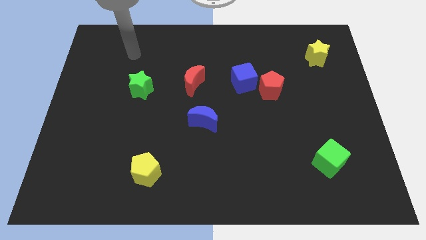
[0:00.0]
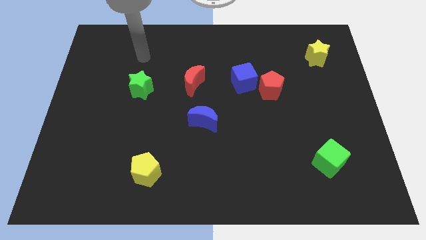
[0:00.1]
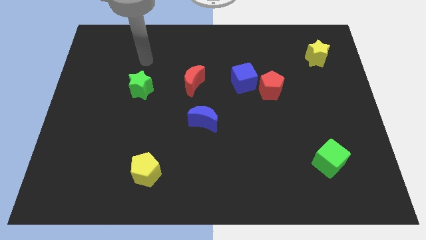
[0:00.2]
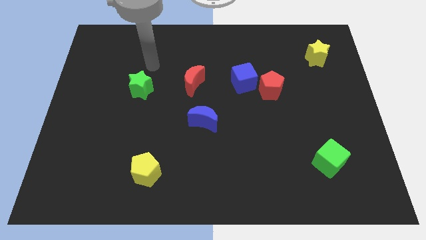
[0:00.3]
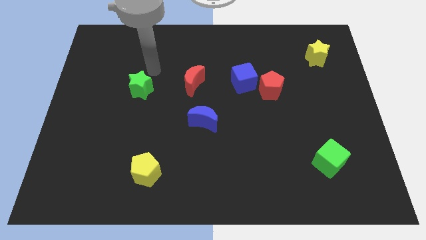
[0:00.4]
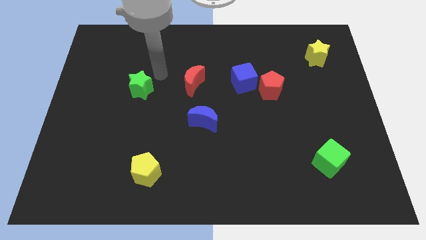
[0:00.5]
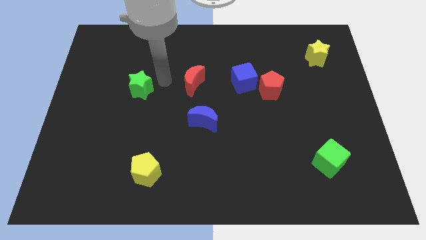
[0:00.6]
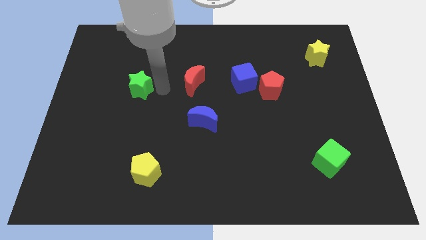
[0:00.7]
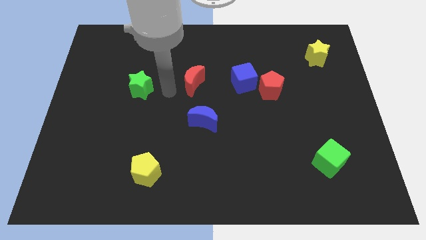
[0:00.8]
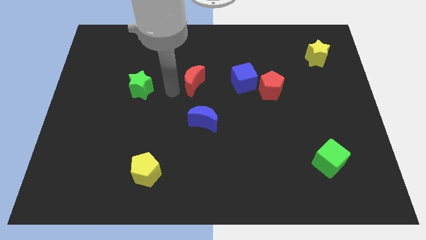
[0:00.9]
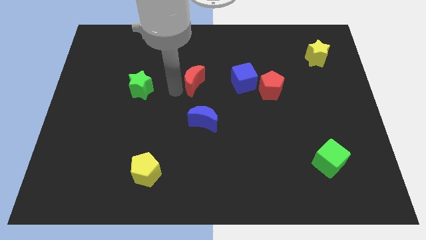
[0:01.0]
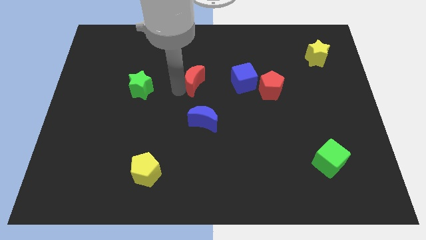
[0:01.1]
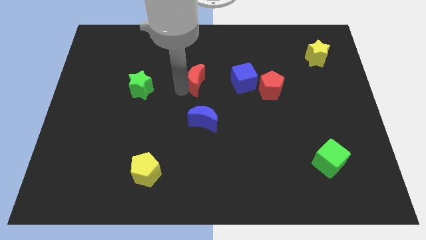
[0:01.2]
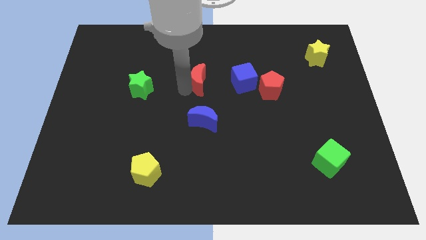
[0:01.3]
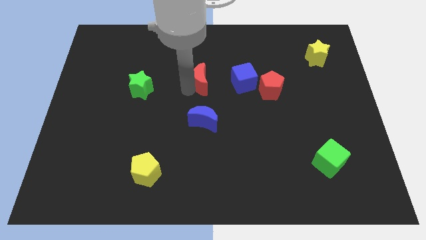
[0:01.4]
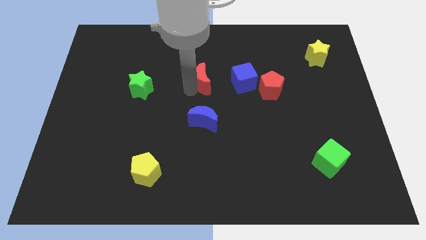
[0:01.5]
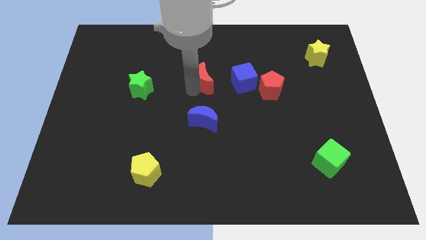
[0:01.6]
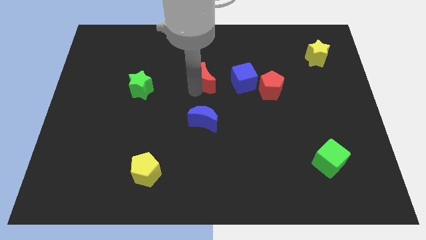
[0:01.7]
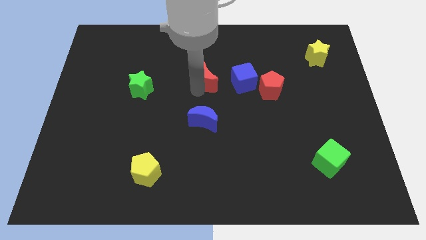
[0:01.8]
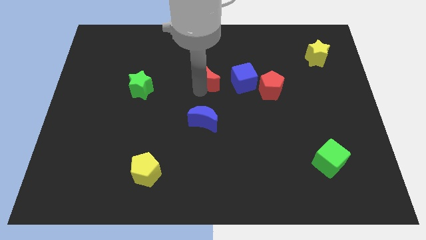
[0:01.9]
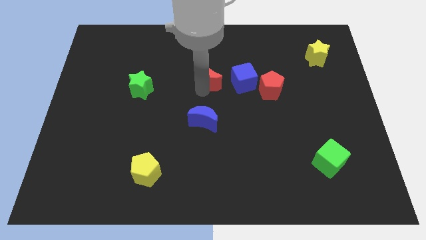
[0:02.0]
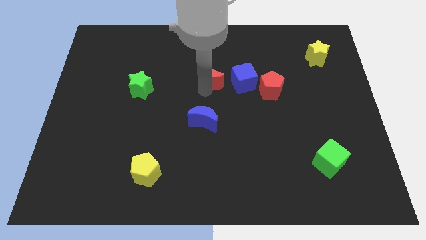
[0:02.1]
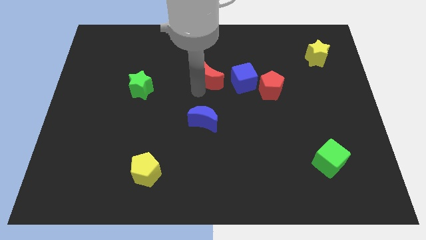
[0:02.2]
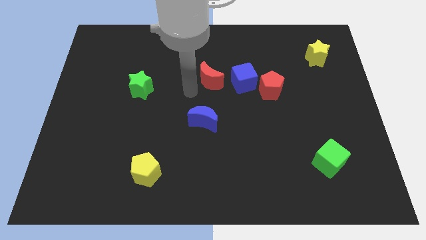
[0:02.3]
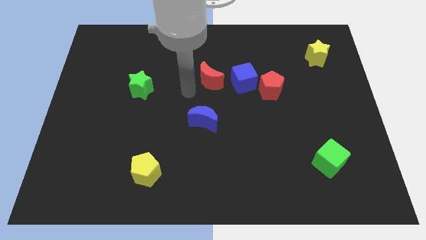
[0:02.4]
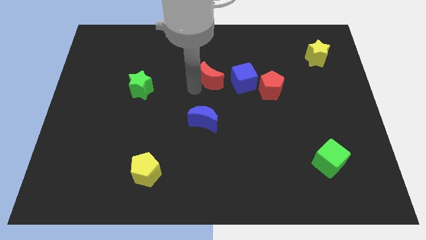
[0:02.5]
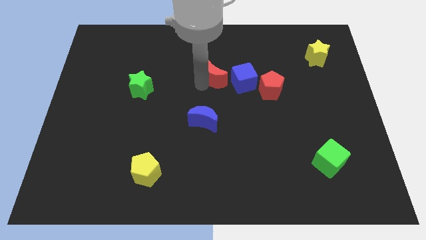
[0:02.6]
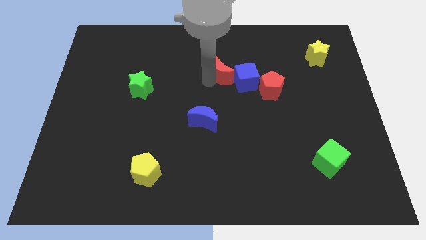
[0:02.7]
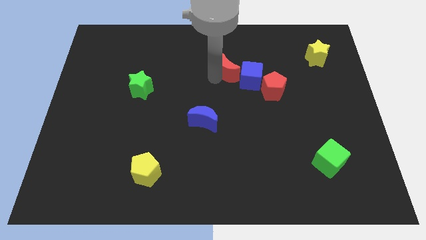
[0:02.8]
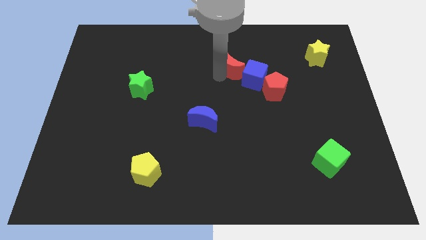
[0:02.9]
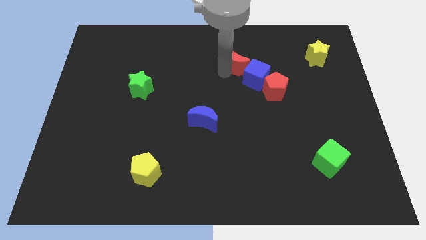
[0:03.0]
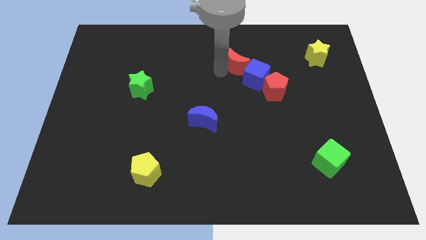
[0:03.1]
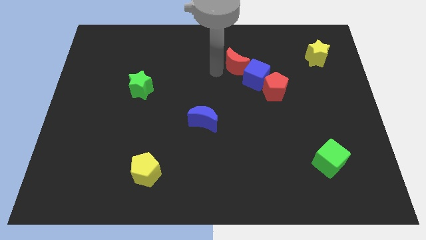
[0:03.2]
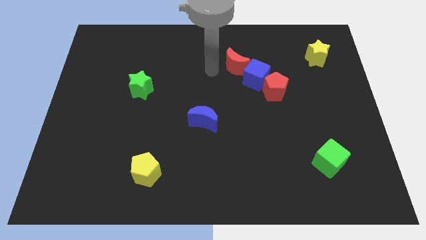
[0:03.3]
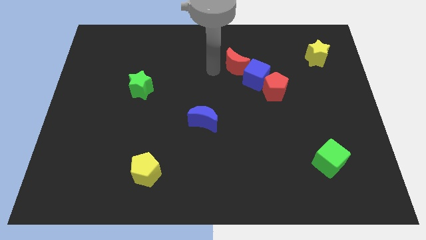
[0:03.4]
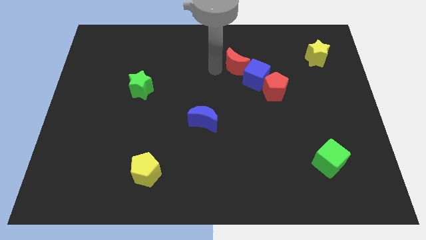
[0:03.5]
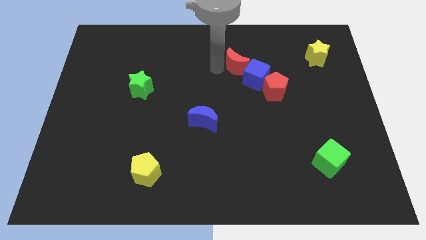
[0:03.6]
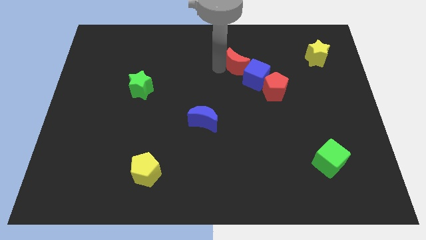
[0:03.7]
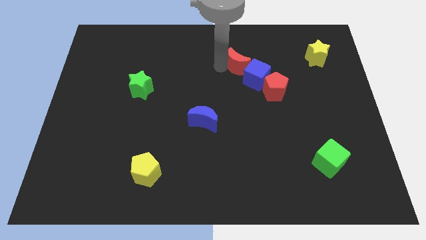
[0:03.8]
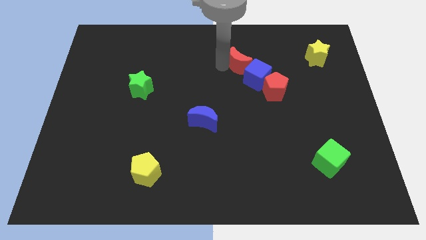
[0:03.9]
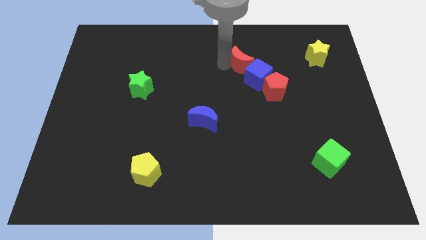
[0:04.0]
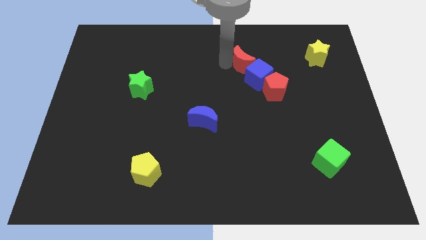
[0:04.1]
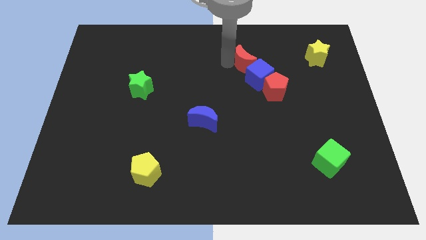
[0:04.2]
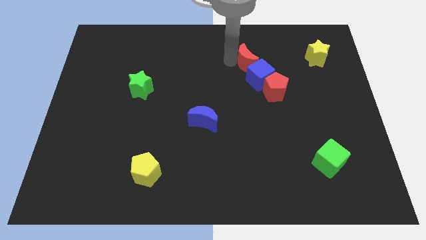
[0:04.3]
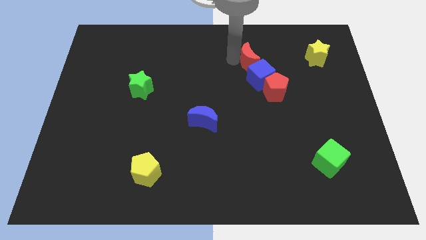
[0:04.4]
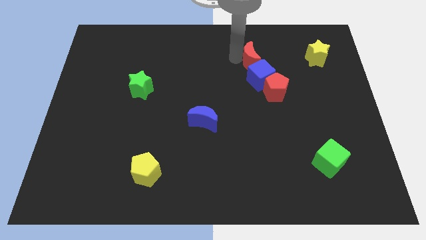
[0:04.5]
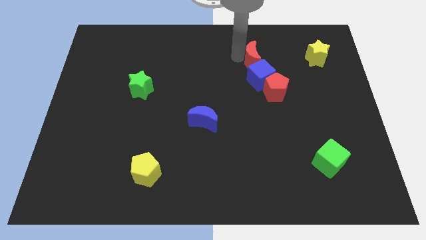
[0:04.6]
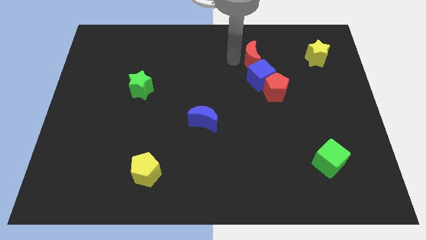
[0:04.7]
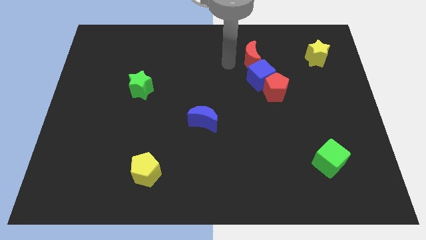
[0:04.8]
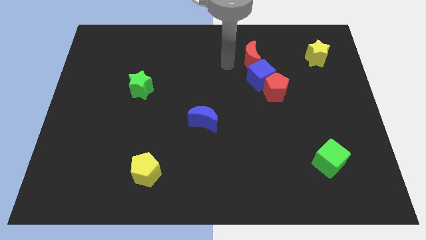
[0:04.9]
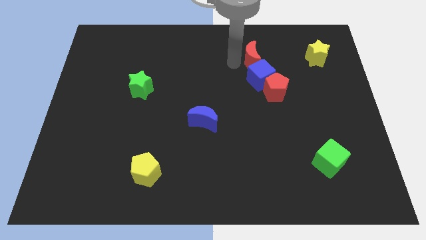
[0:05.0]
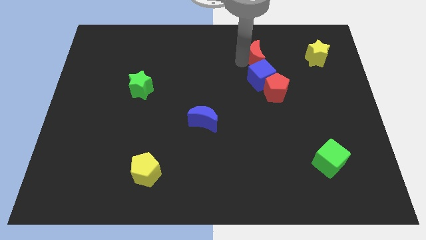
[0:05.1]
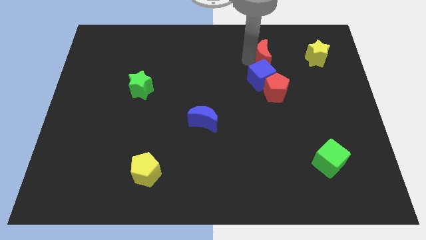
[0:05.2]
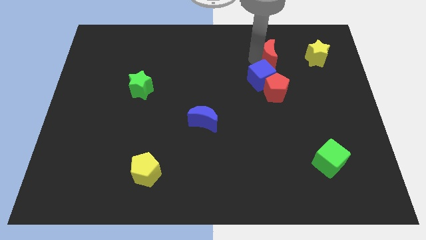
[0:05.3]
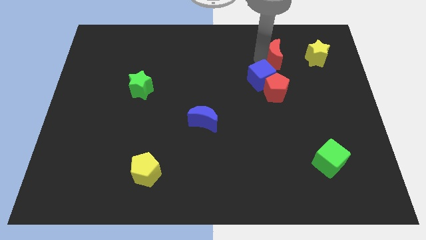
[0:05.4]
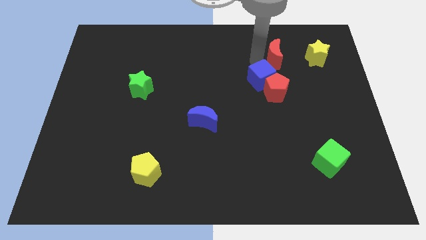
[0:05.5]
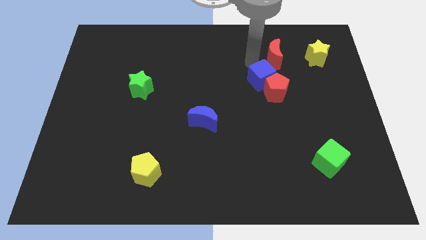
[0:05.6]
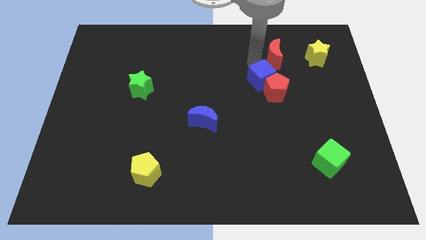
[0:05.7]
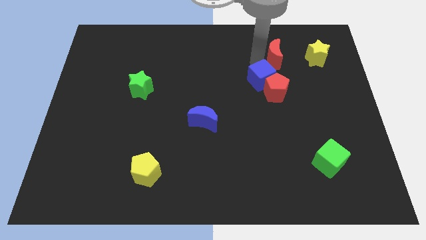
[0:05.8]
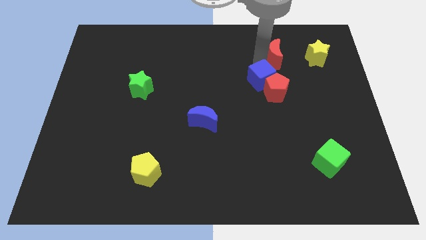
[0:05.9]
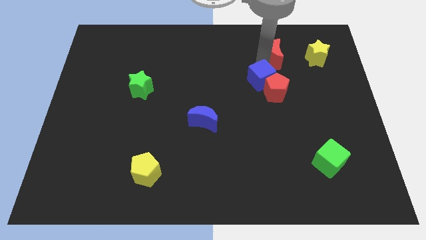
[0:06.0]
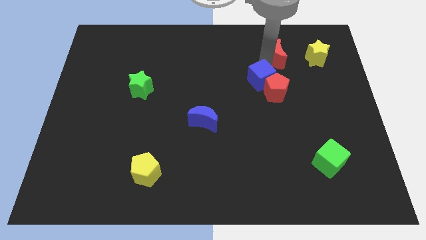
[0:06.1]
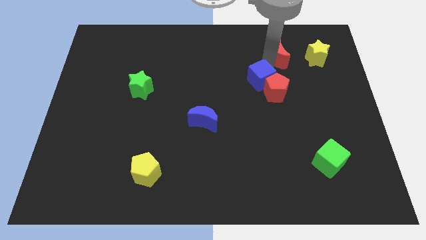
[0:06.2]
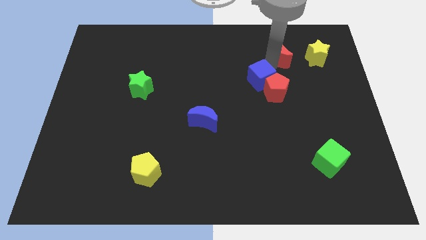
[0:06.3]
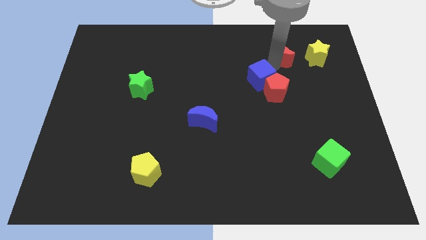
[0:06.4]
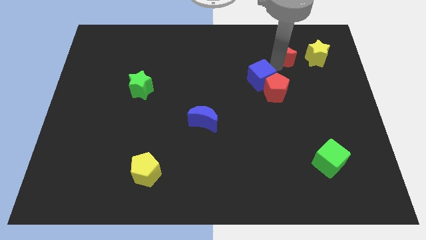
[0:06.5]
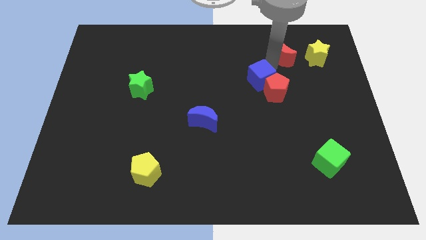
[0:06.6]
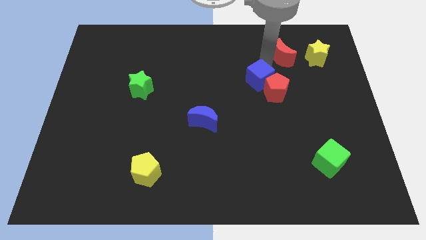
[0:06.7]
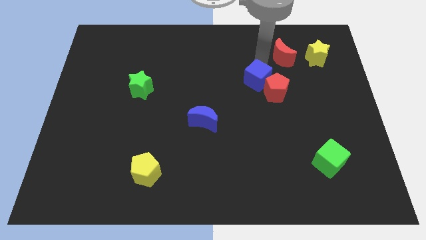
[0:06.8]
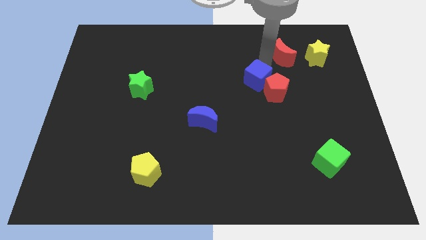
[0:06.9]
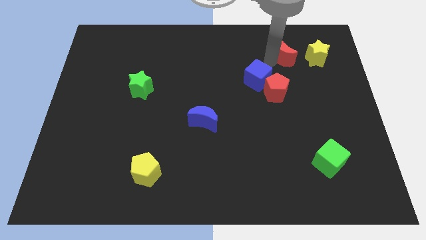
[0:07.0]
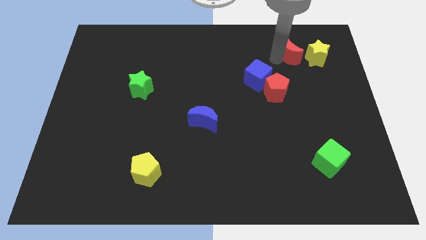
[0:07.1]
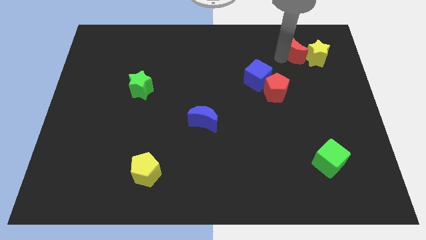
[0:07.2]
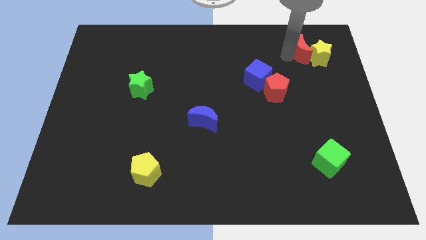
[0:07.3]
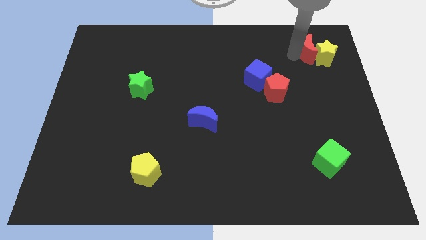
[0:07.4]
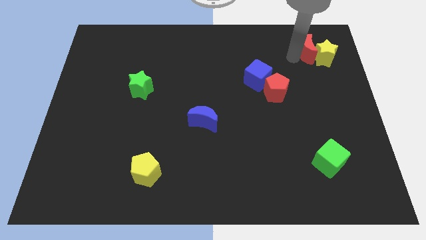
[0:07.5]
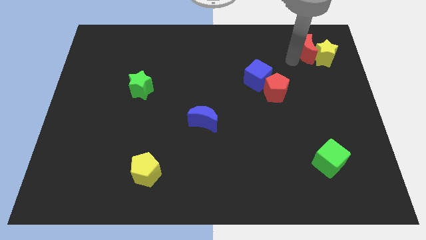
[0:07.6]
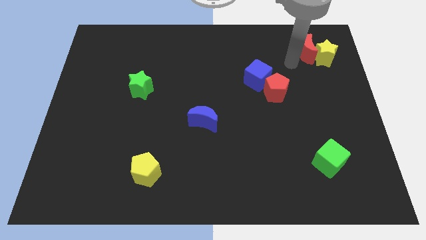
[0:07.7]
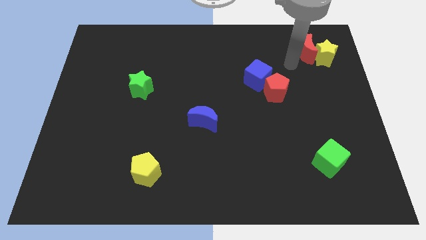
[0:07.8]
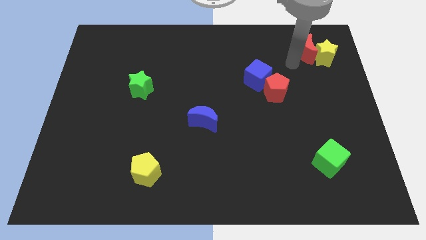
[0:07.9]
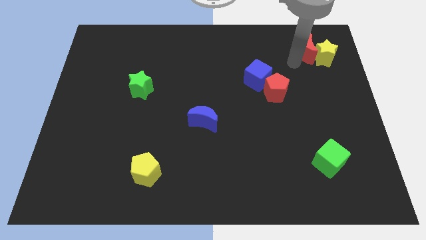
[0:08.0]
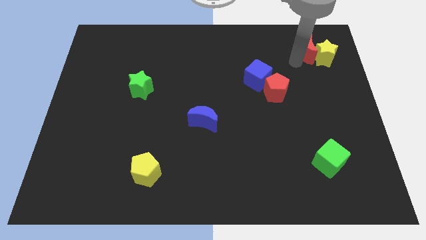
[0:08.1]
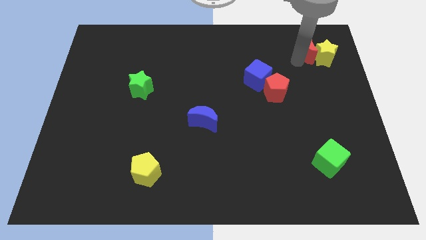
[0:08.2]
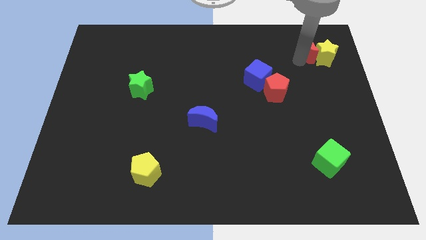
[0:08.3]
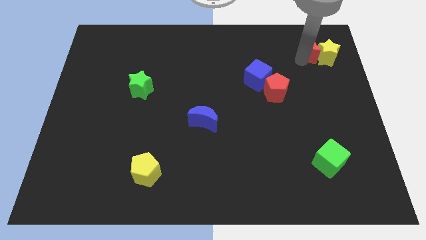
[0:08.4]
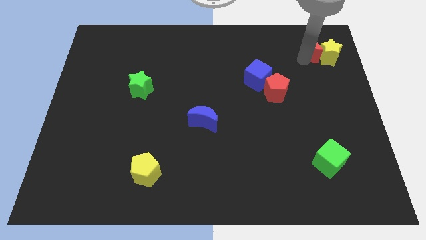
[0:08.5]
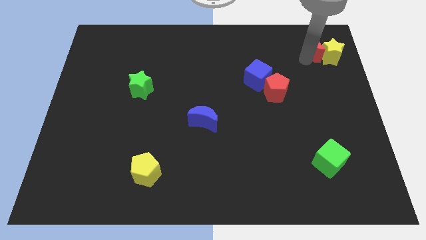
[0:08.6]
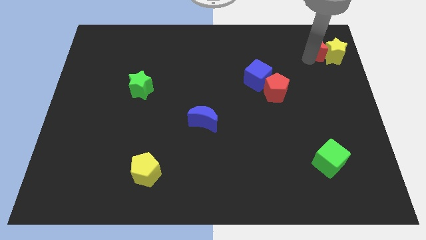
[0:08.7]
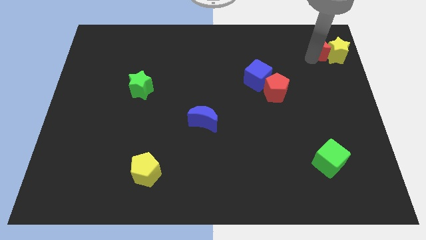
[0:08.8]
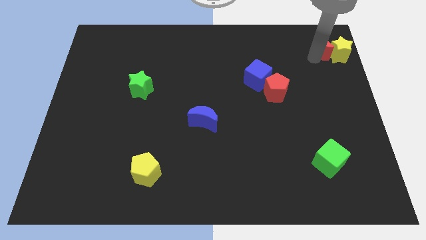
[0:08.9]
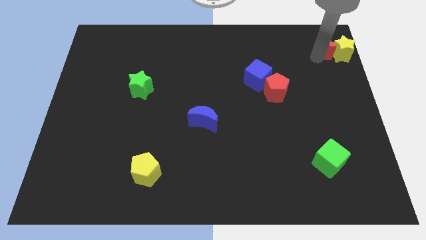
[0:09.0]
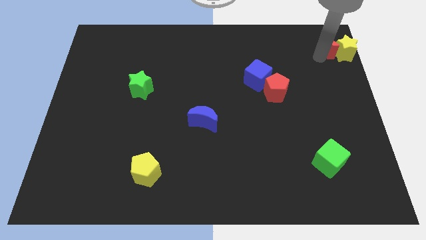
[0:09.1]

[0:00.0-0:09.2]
push the red moon to the upper right corner
